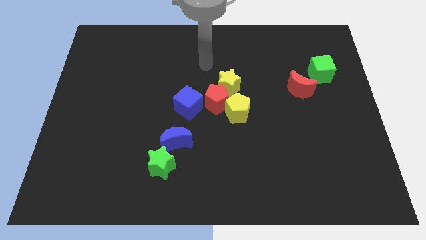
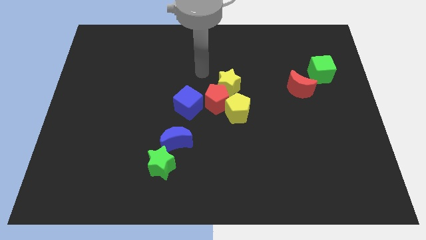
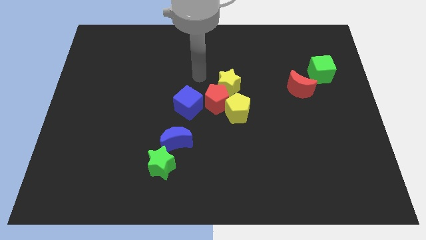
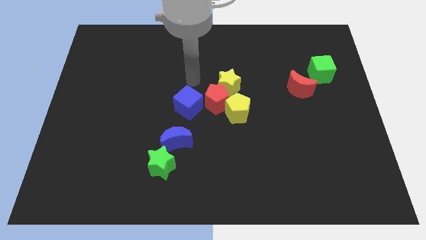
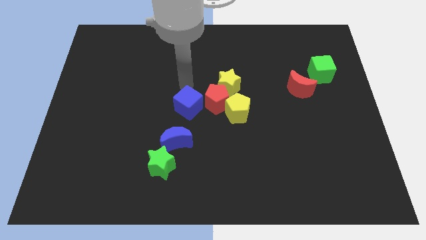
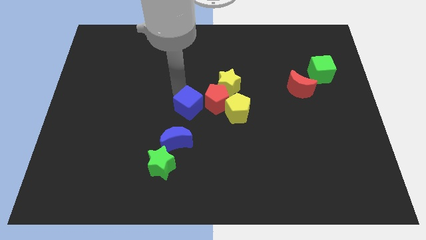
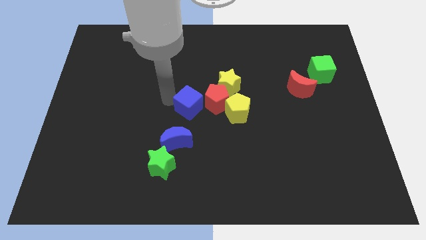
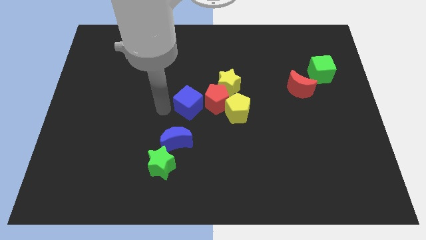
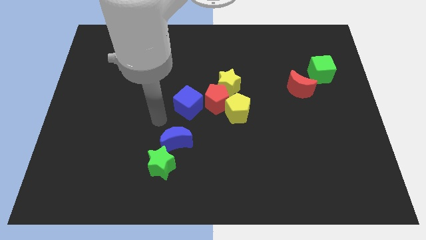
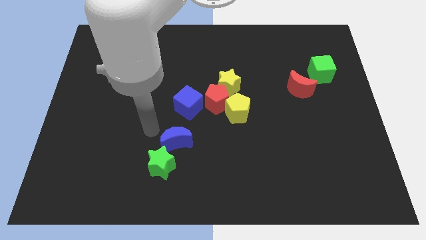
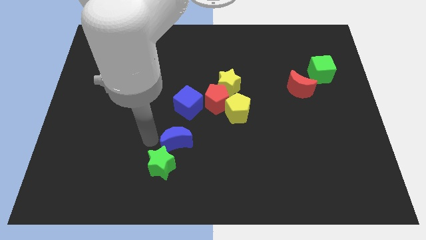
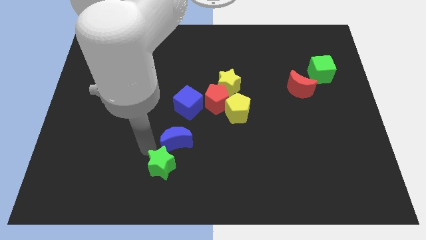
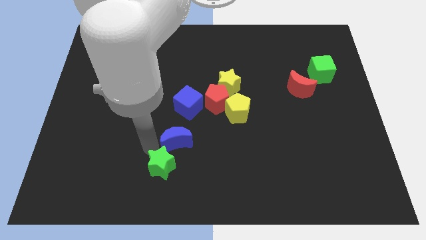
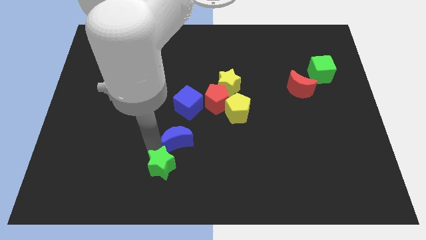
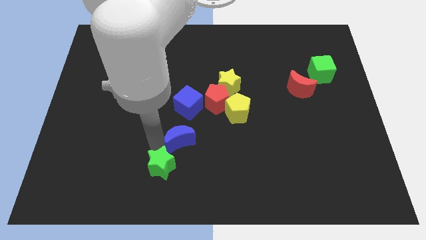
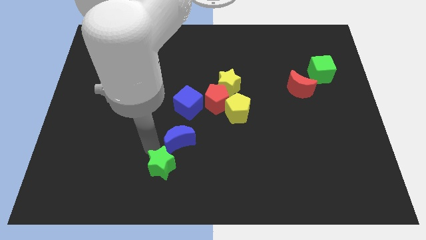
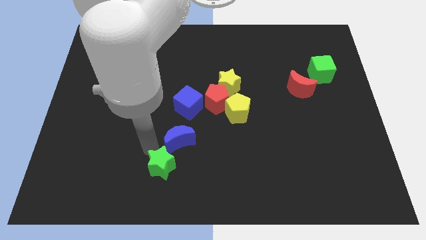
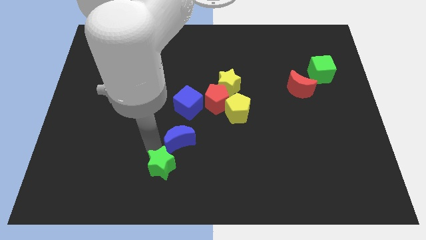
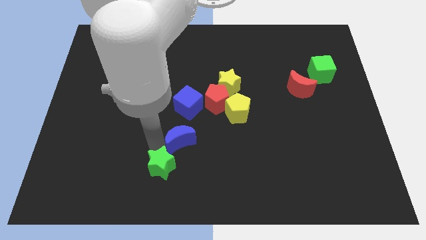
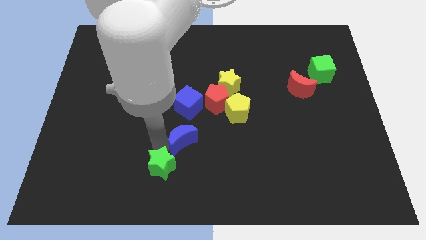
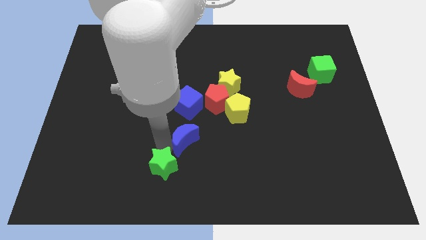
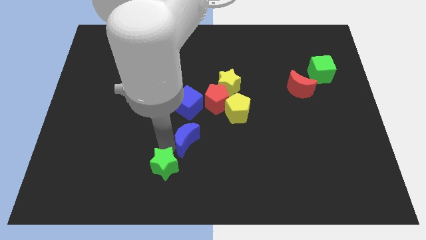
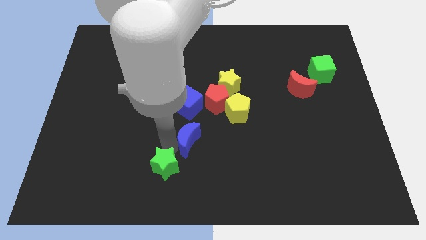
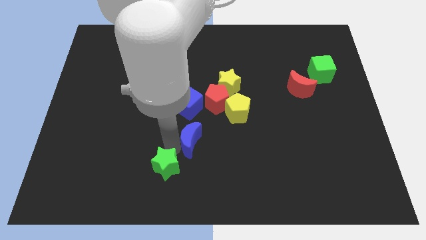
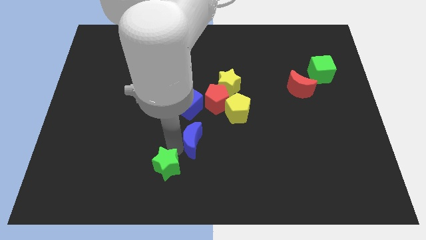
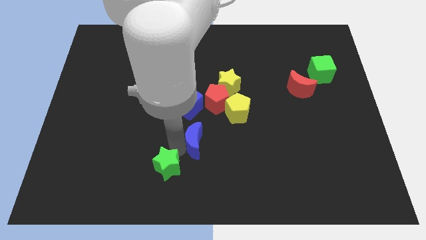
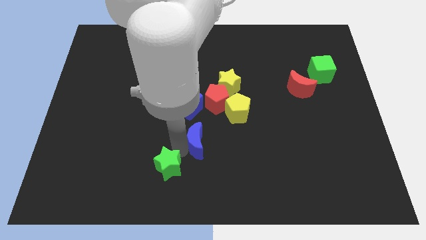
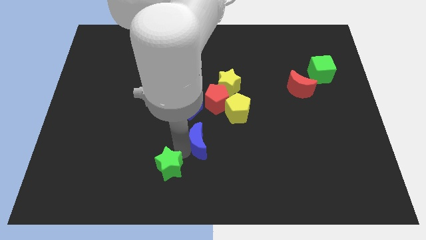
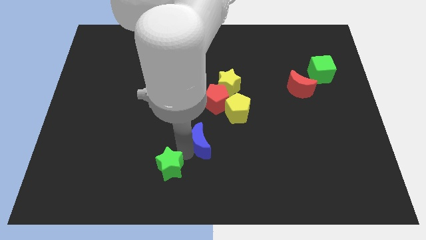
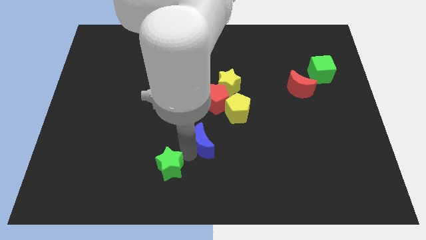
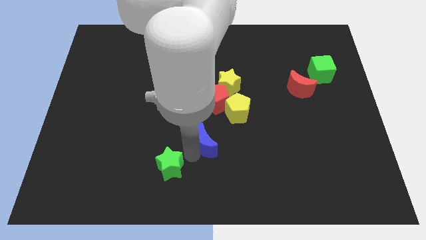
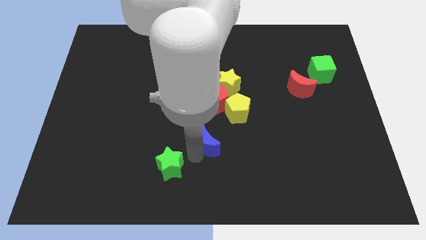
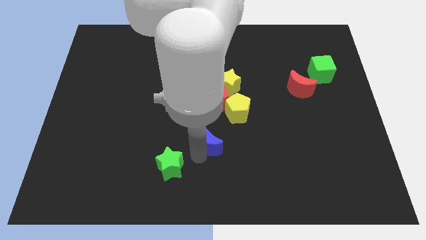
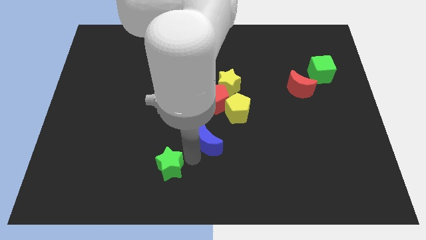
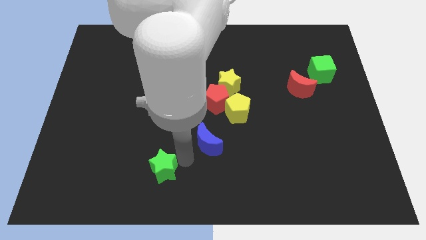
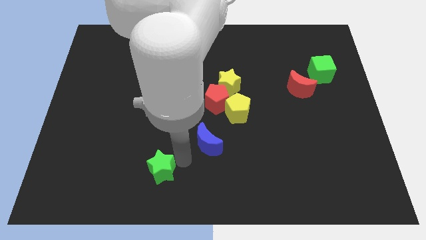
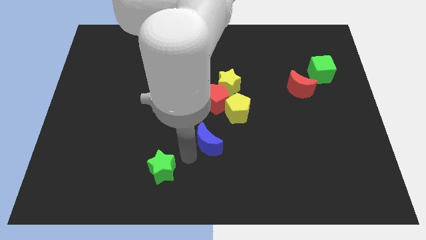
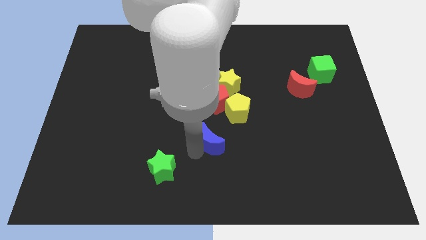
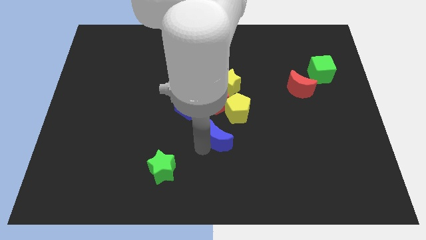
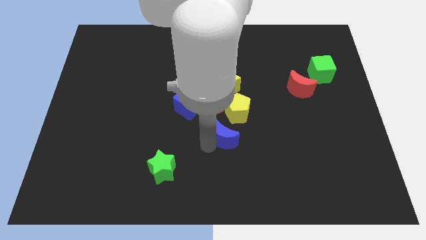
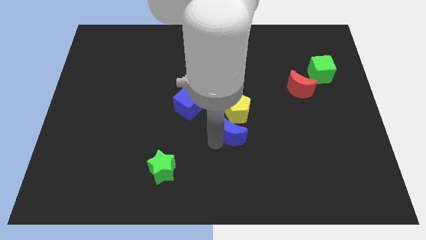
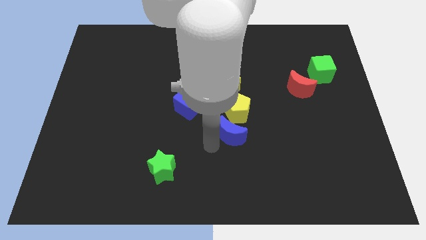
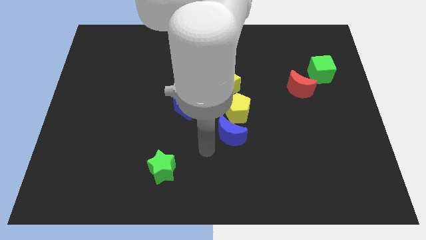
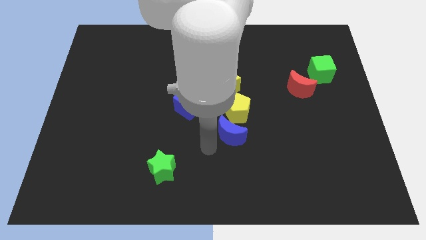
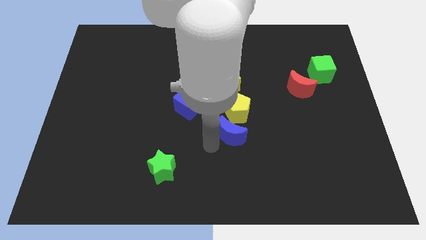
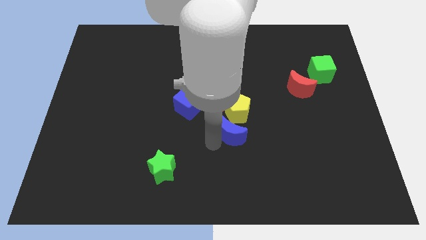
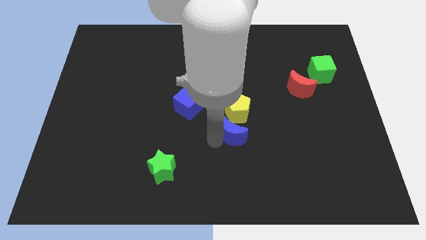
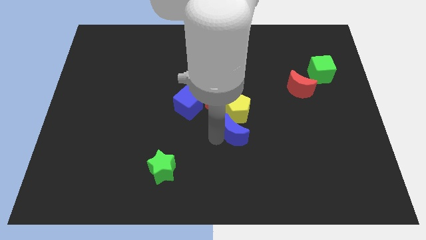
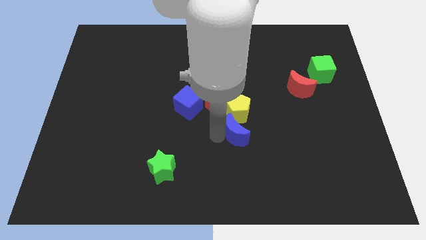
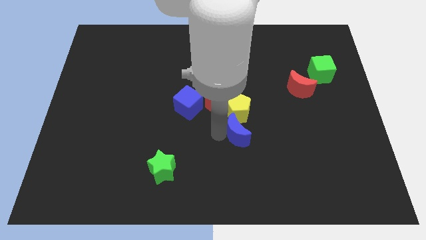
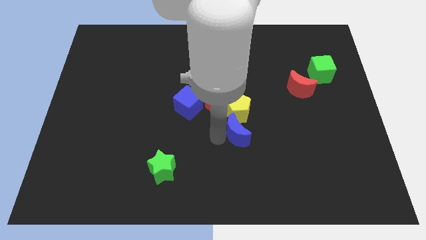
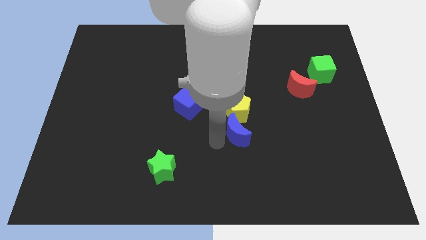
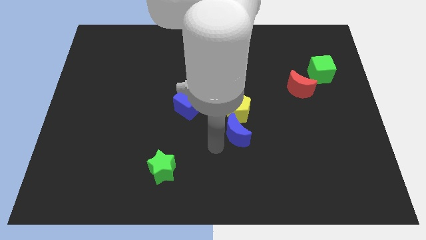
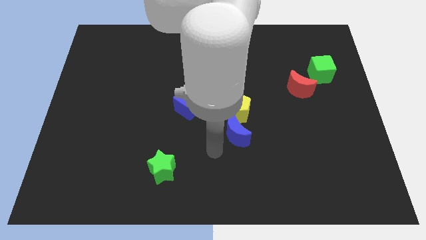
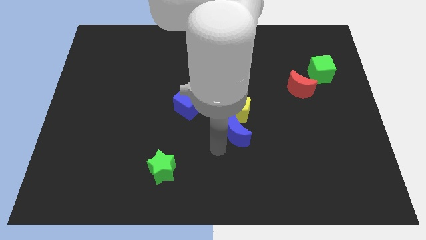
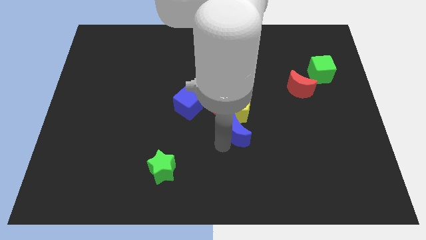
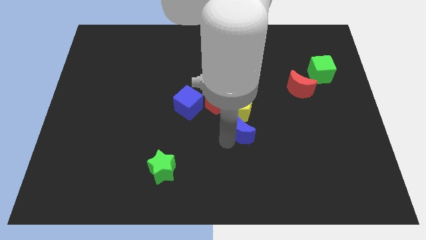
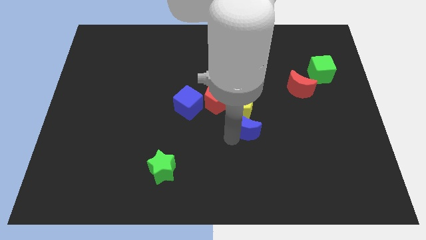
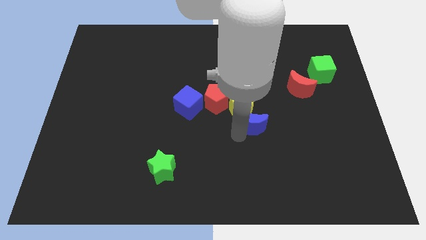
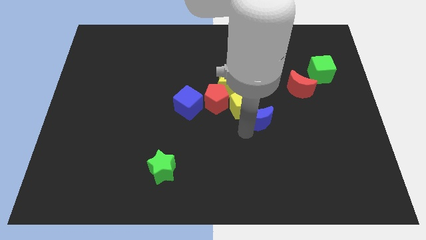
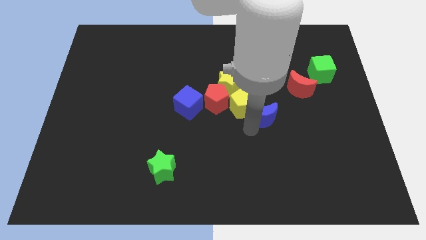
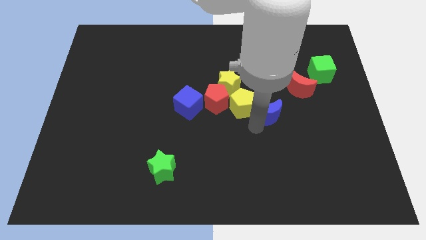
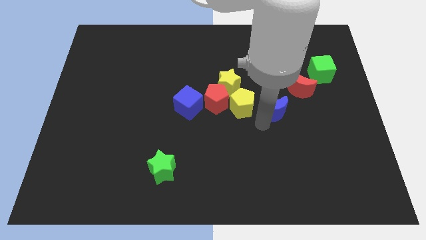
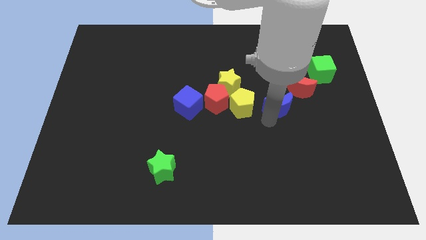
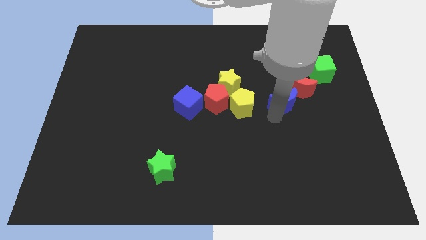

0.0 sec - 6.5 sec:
move the blue moon diagonally upwards and to the right

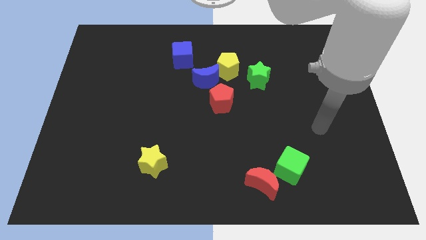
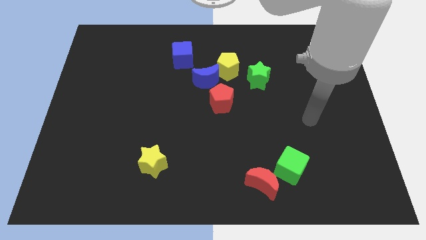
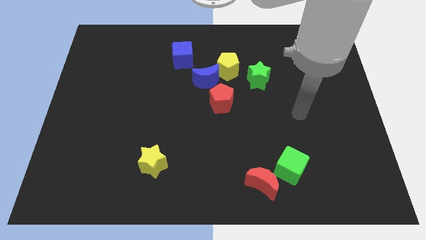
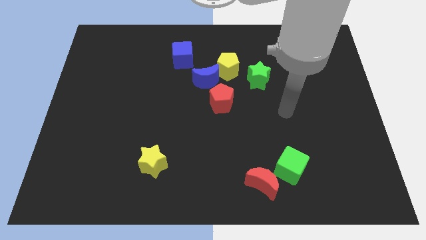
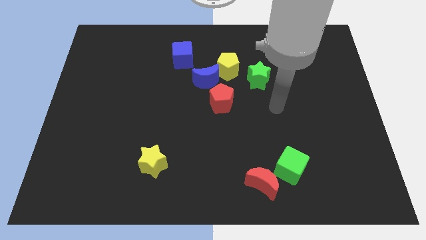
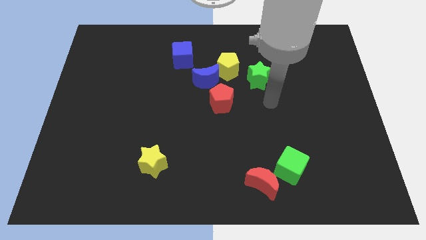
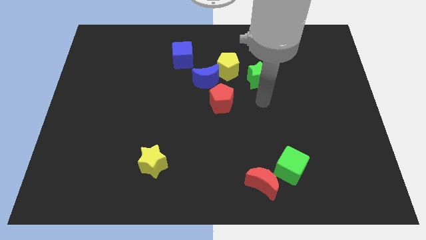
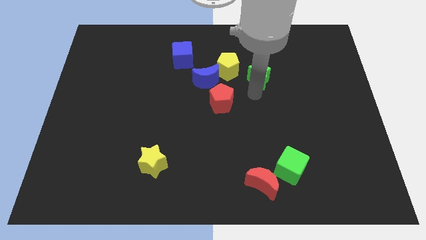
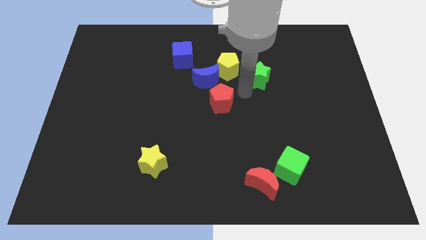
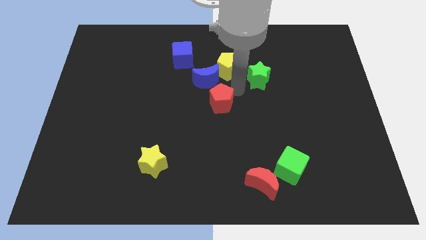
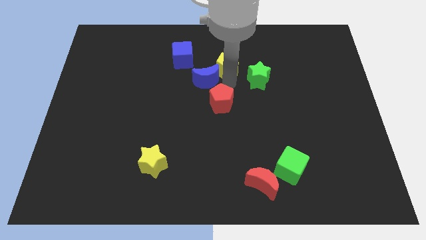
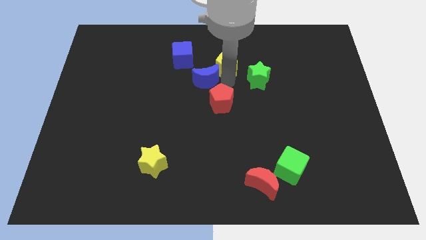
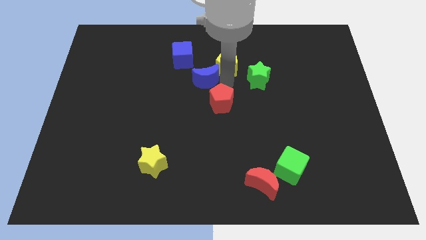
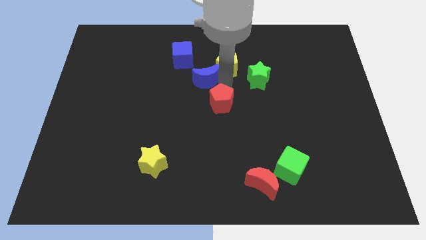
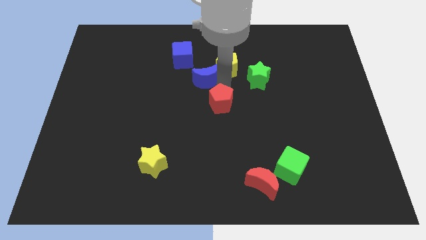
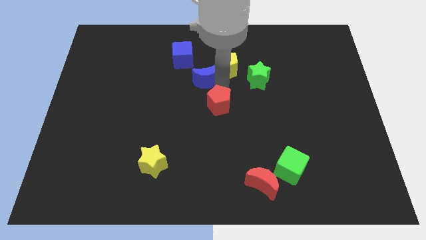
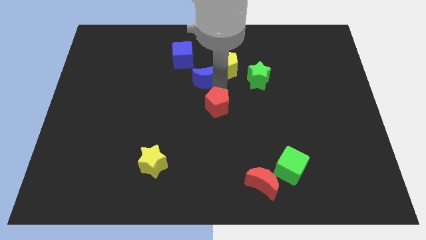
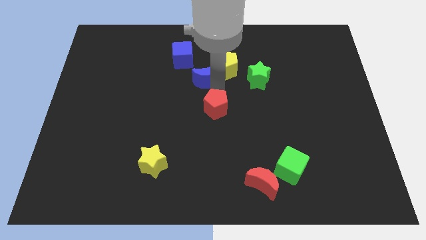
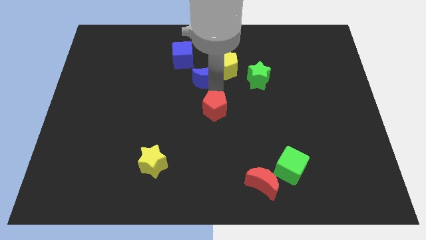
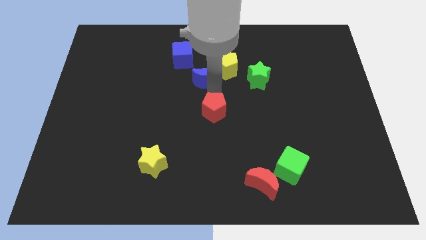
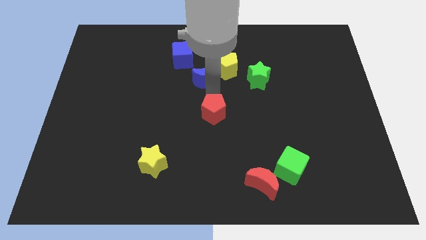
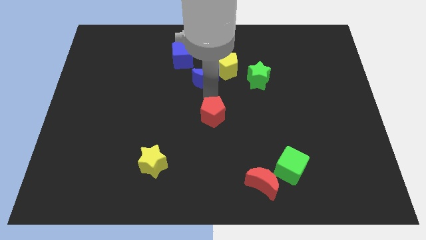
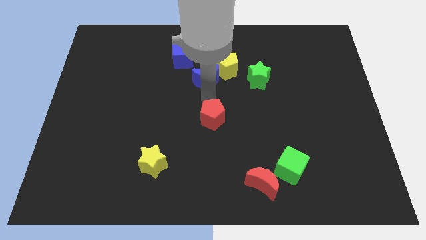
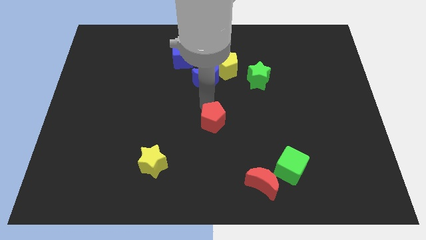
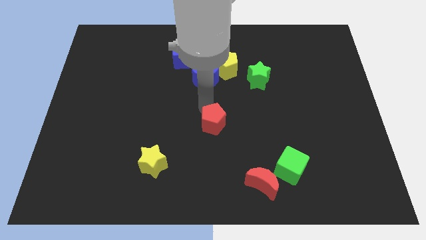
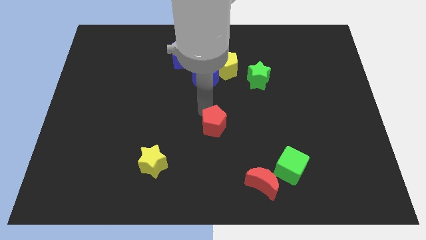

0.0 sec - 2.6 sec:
slightly slide the red pentagon downwards
